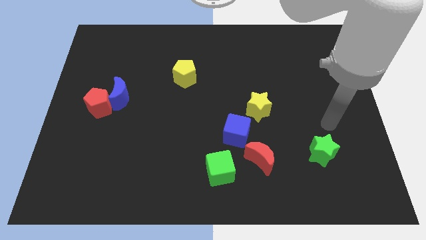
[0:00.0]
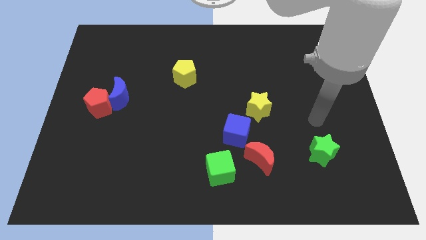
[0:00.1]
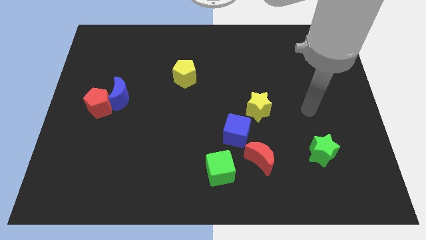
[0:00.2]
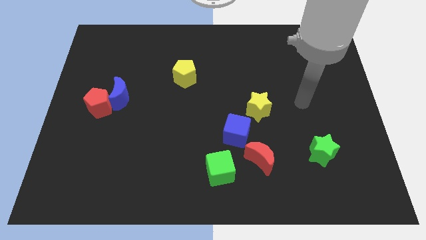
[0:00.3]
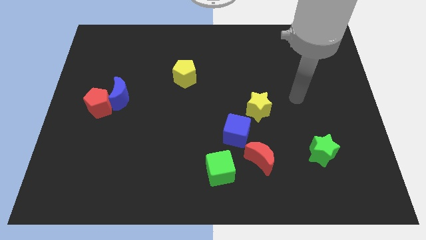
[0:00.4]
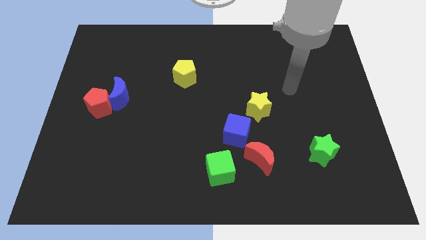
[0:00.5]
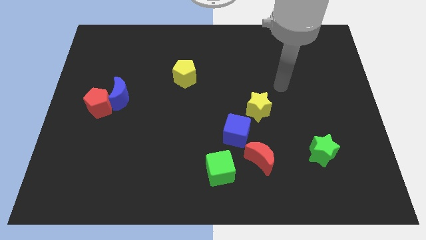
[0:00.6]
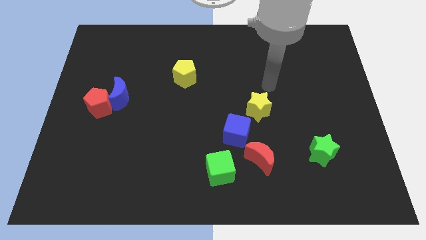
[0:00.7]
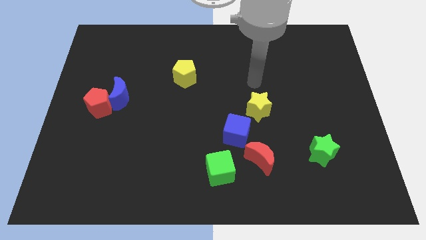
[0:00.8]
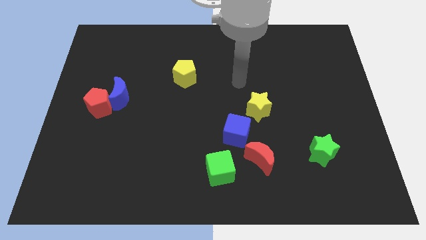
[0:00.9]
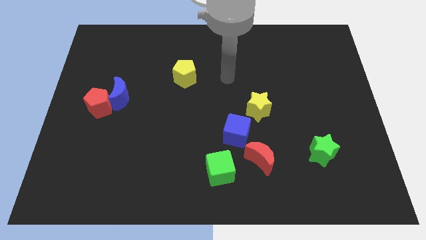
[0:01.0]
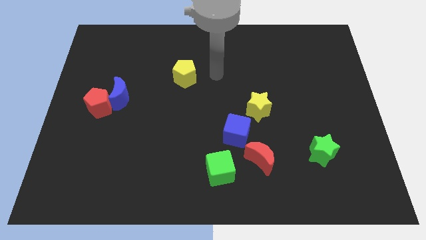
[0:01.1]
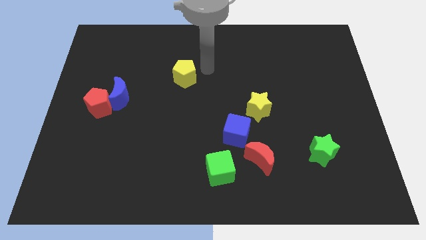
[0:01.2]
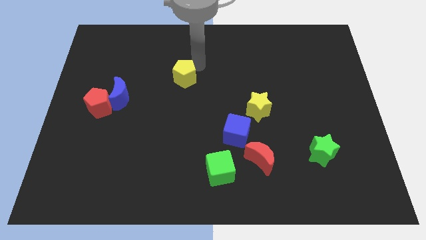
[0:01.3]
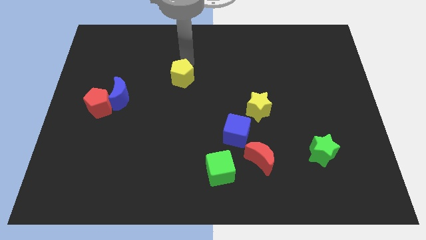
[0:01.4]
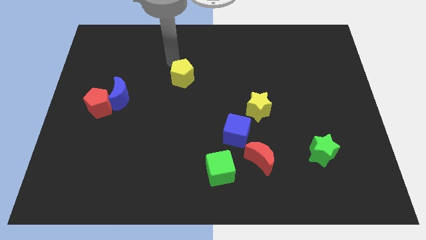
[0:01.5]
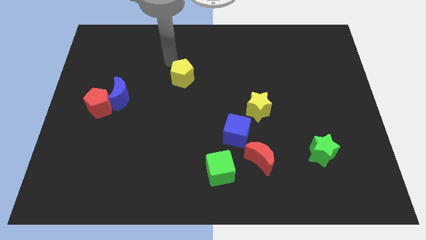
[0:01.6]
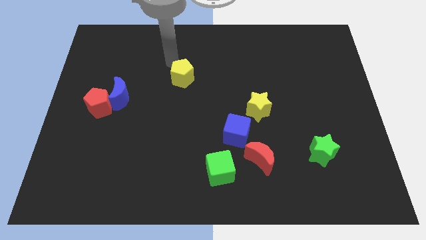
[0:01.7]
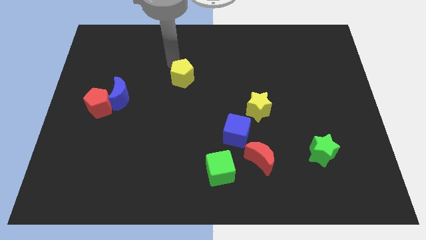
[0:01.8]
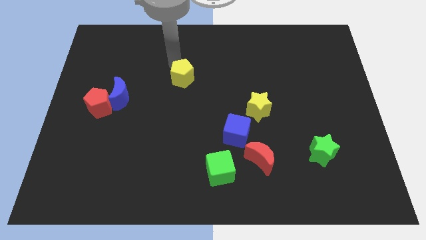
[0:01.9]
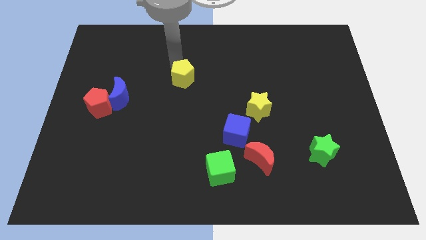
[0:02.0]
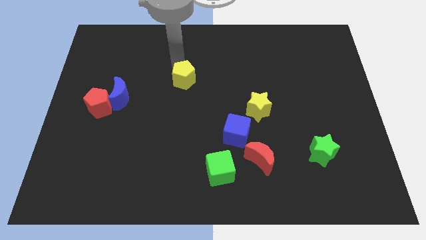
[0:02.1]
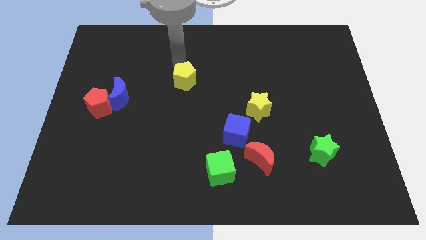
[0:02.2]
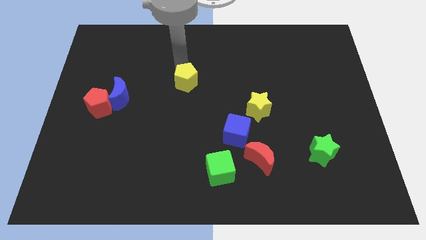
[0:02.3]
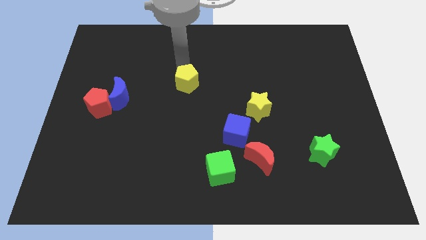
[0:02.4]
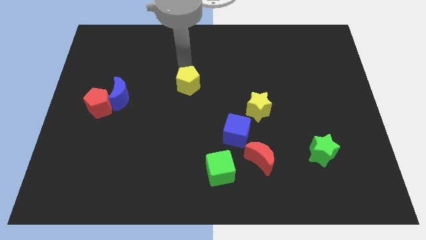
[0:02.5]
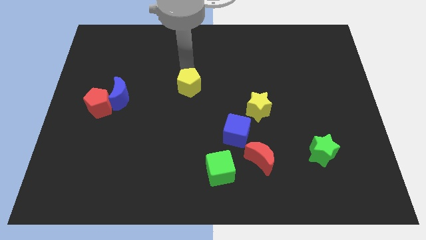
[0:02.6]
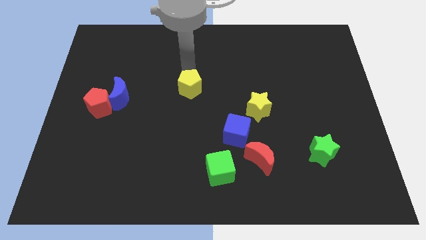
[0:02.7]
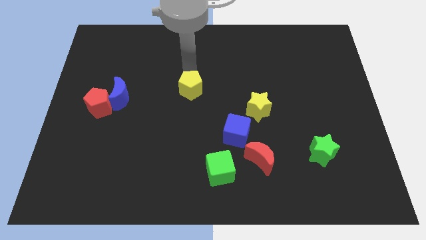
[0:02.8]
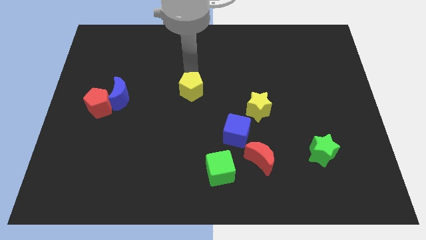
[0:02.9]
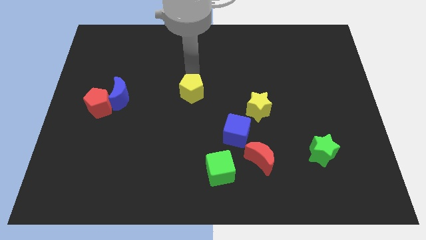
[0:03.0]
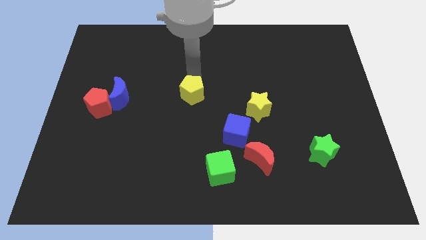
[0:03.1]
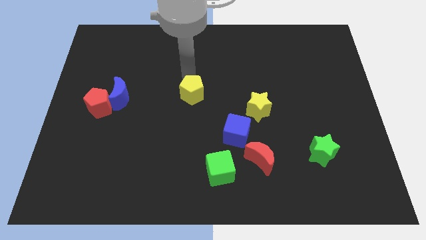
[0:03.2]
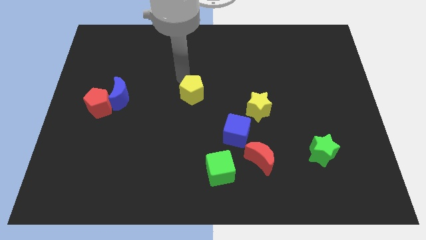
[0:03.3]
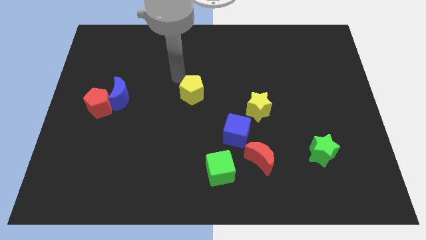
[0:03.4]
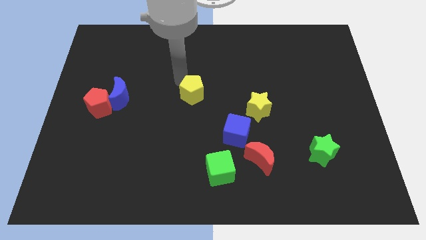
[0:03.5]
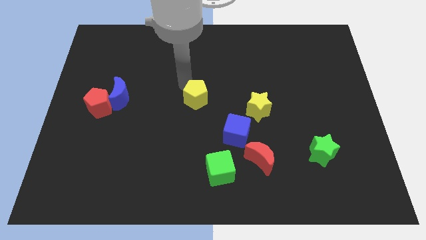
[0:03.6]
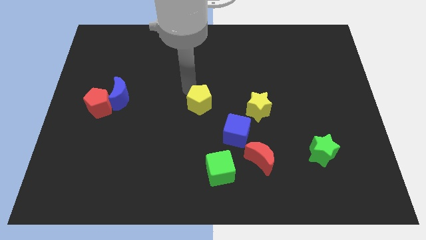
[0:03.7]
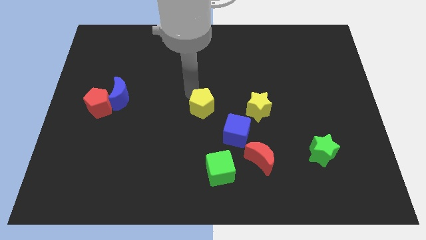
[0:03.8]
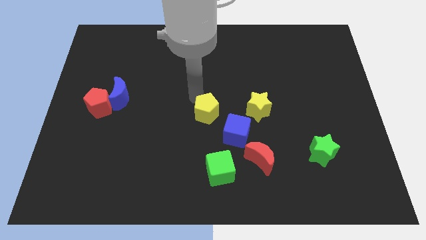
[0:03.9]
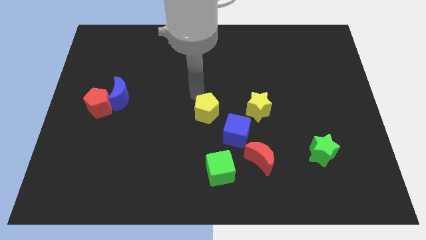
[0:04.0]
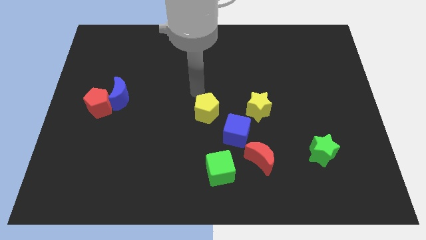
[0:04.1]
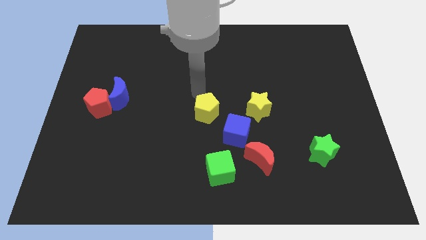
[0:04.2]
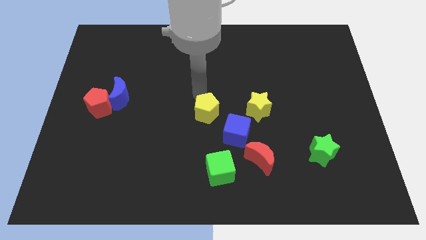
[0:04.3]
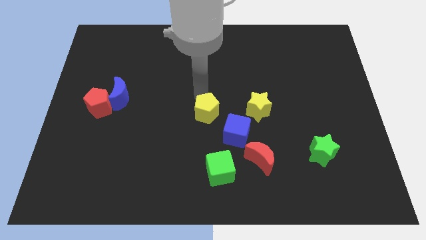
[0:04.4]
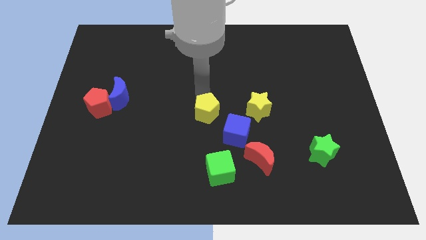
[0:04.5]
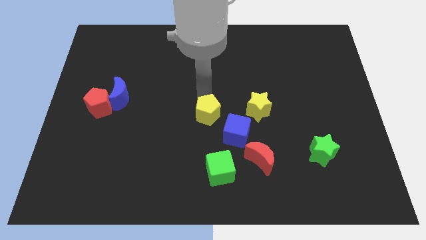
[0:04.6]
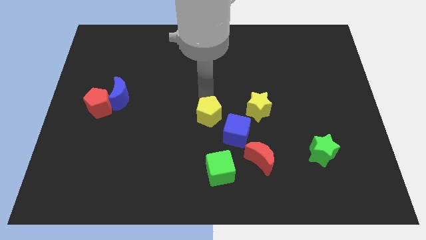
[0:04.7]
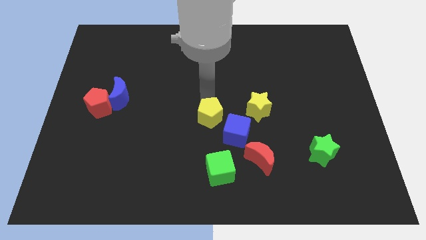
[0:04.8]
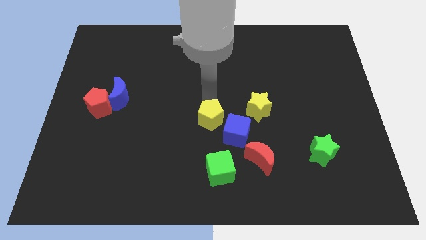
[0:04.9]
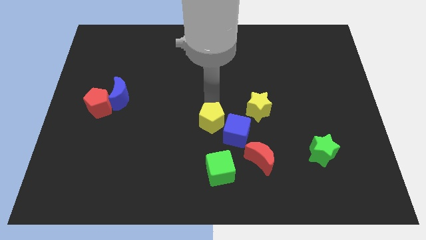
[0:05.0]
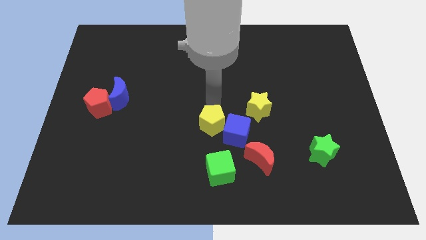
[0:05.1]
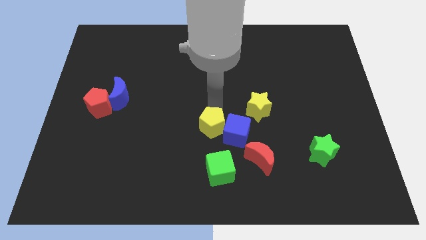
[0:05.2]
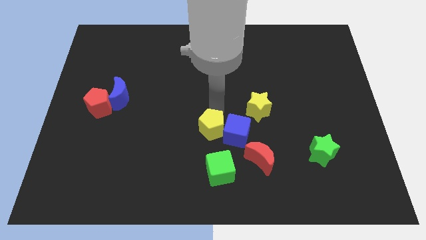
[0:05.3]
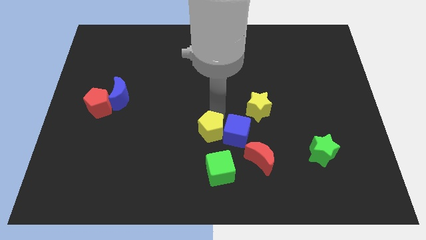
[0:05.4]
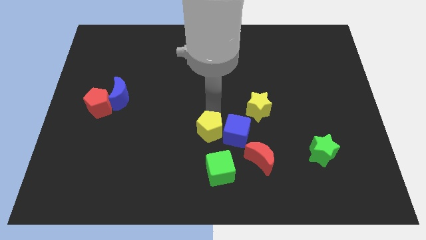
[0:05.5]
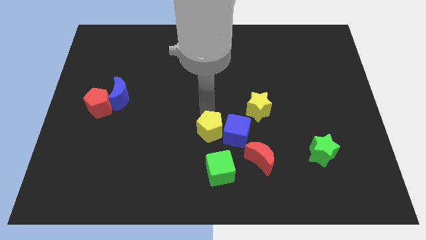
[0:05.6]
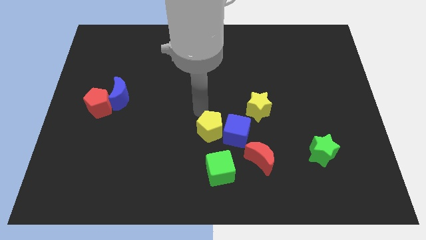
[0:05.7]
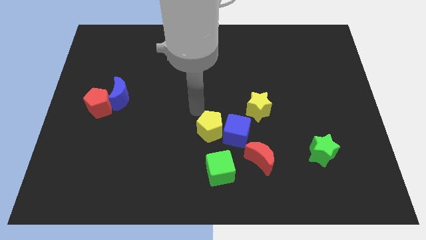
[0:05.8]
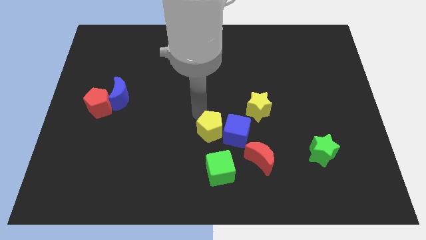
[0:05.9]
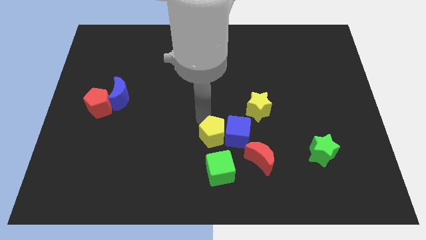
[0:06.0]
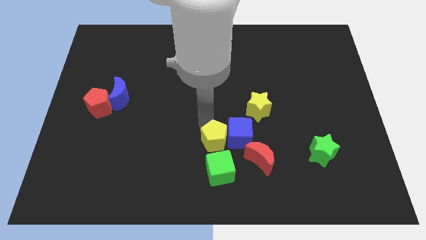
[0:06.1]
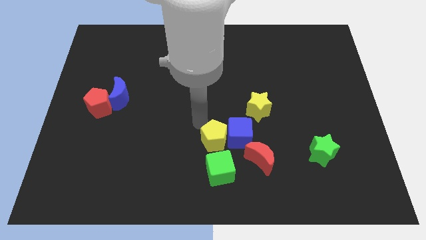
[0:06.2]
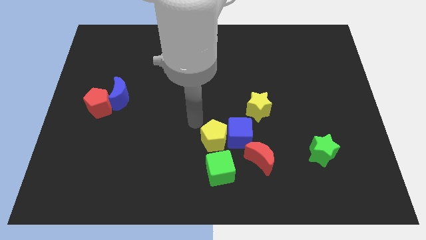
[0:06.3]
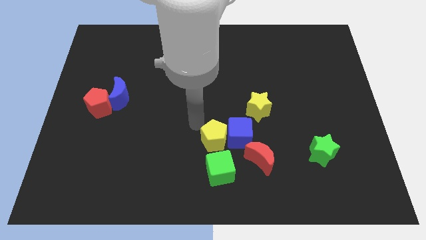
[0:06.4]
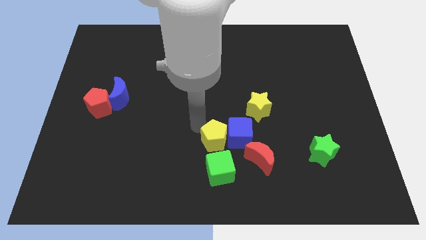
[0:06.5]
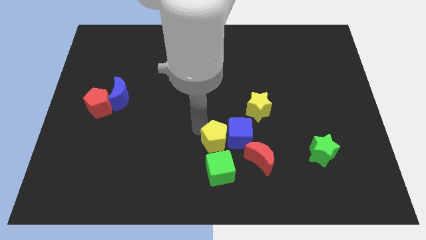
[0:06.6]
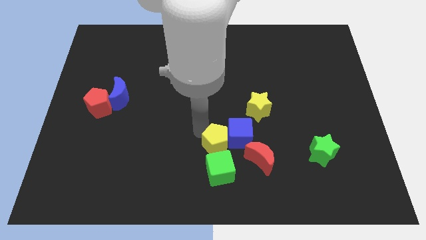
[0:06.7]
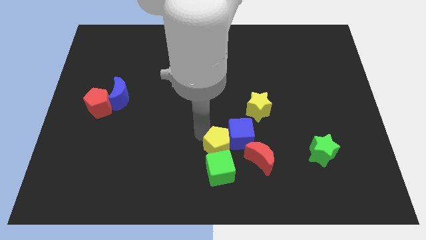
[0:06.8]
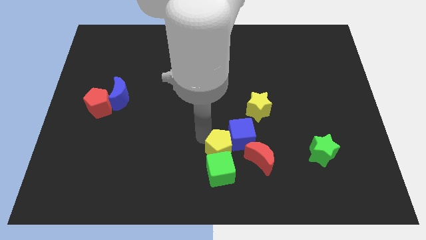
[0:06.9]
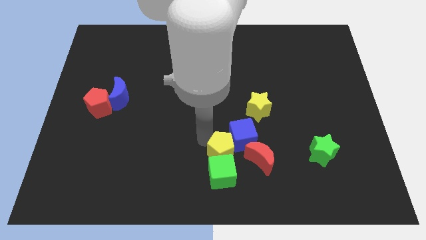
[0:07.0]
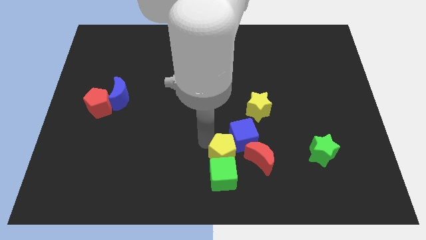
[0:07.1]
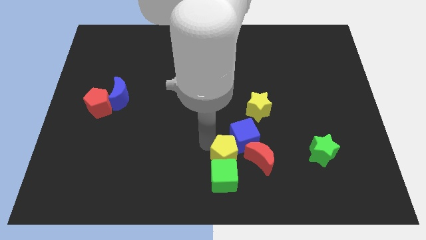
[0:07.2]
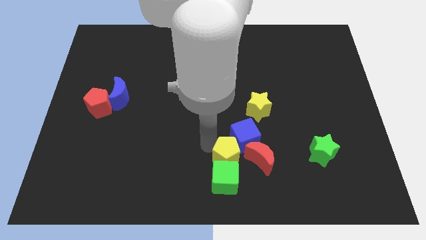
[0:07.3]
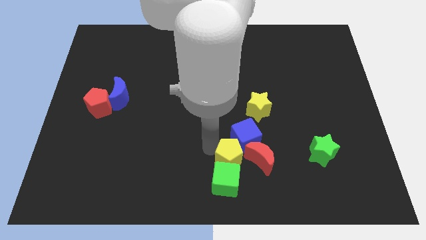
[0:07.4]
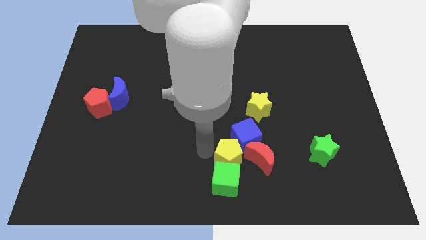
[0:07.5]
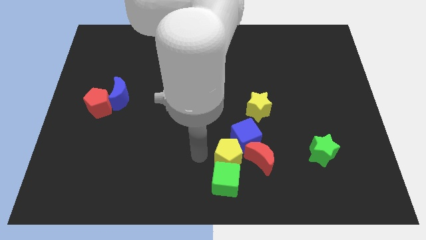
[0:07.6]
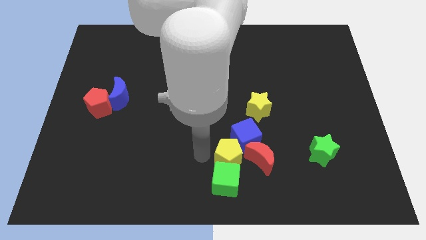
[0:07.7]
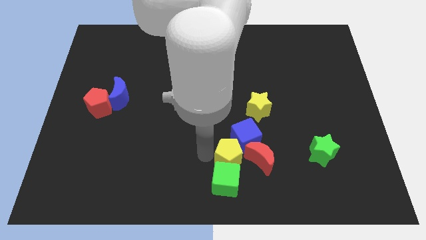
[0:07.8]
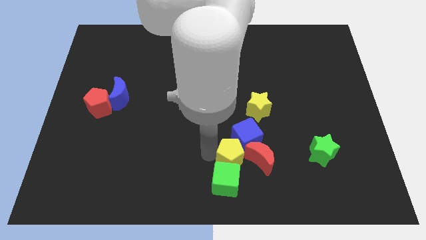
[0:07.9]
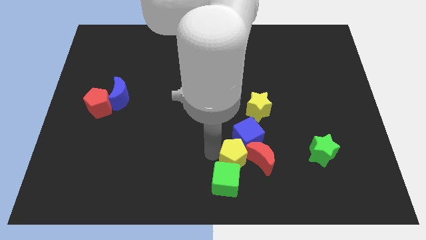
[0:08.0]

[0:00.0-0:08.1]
move the yellow pentagon towards the red moon
